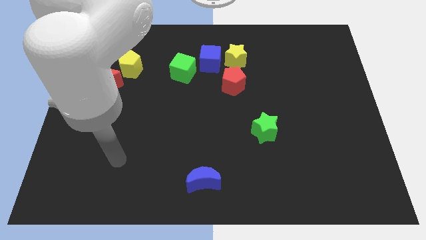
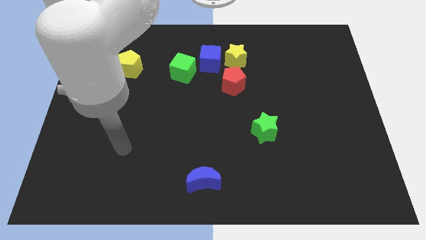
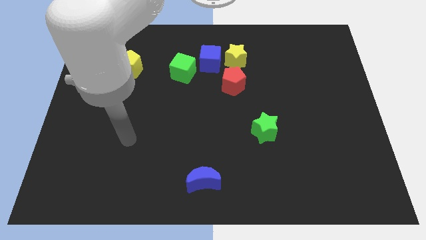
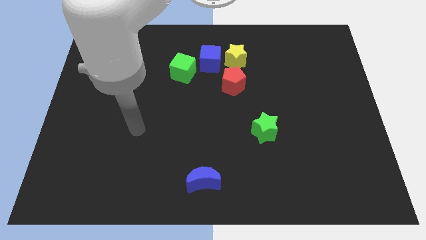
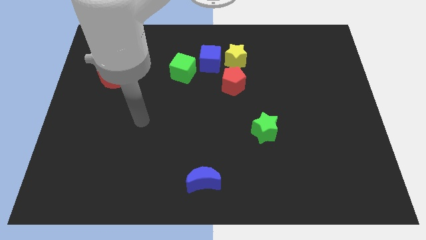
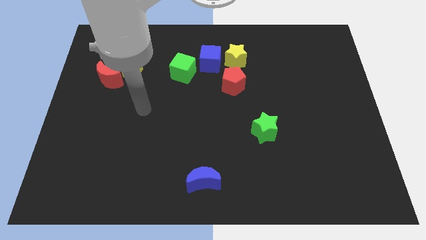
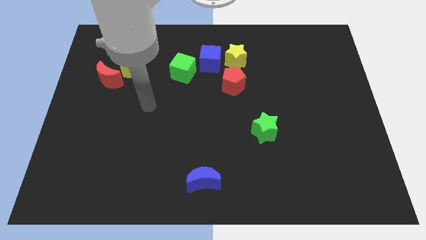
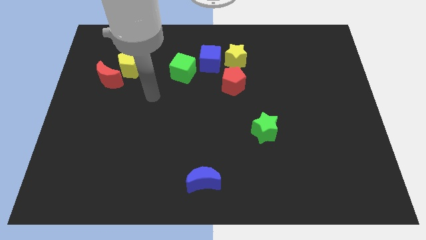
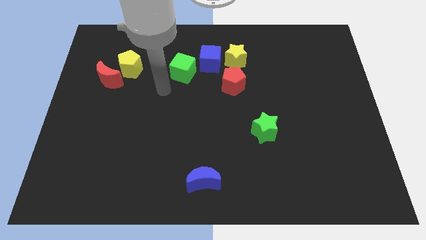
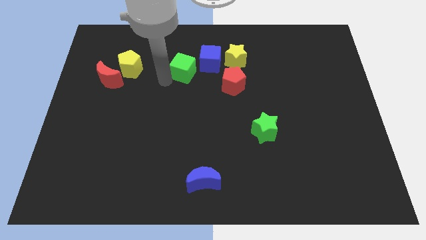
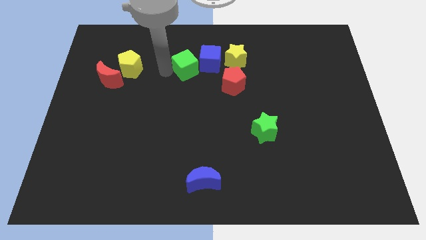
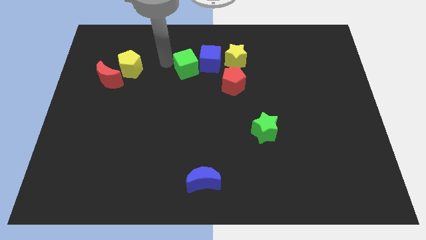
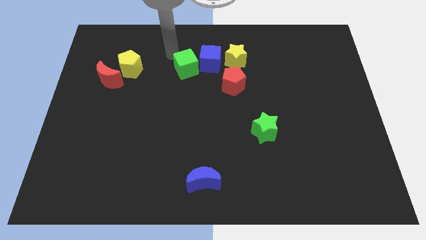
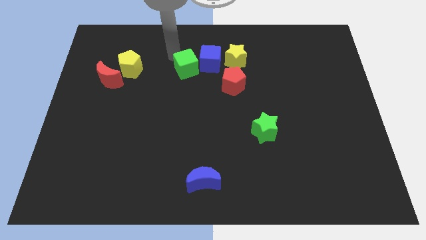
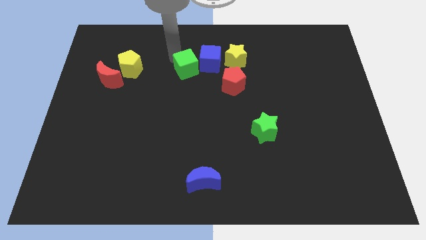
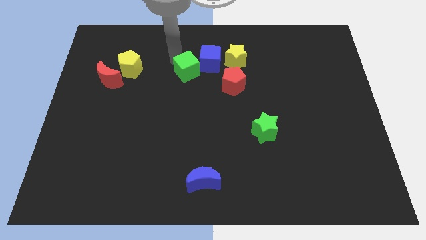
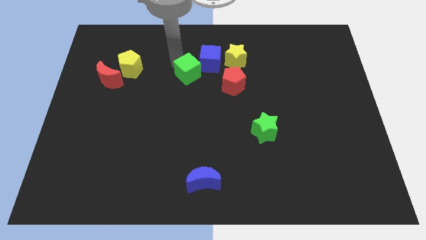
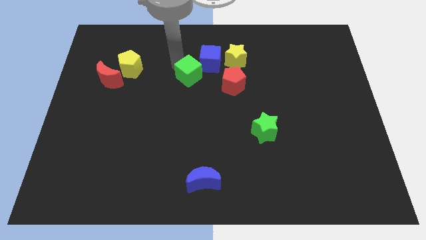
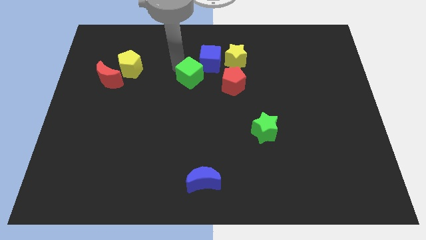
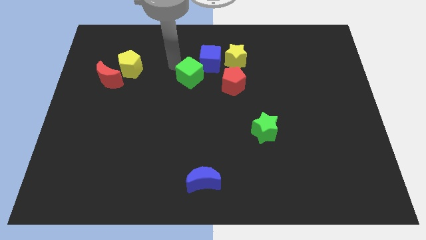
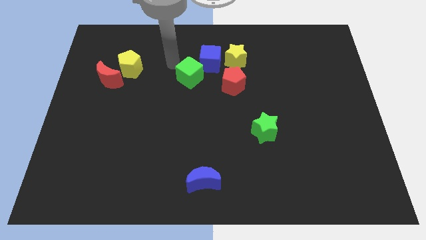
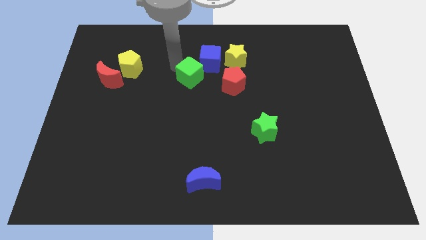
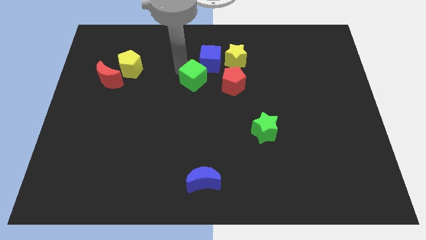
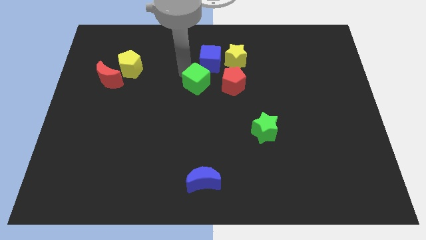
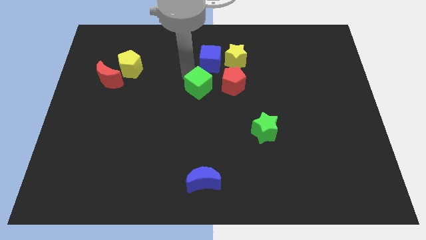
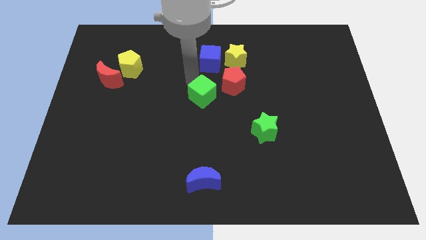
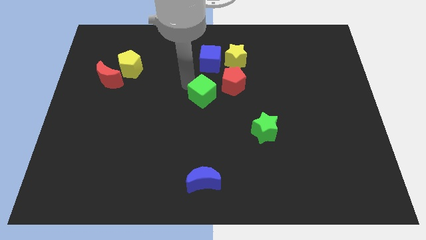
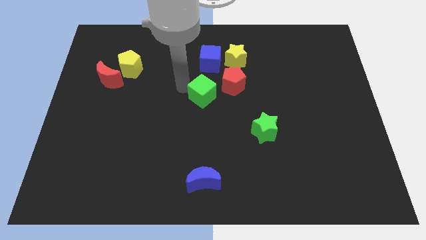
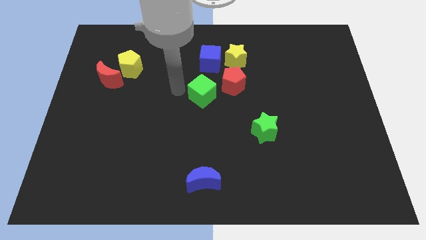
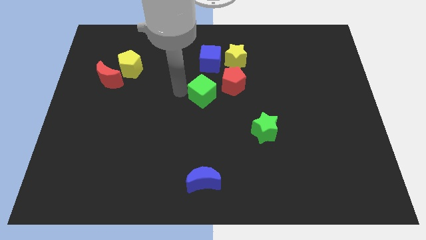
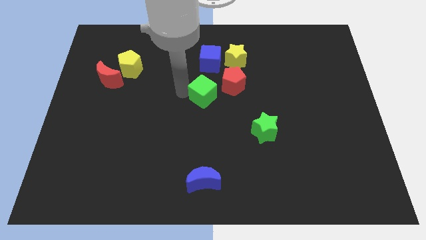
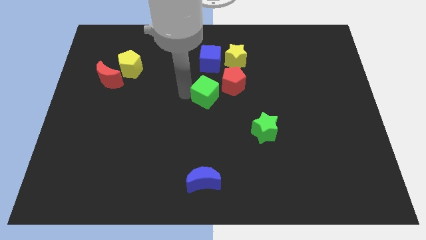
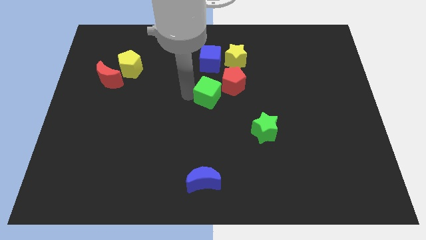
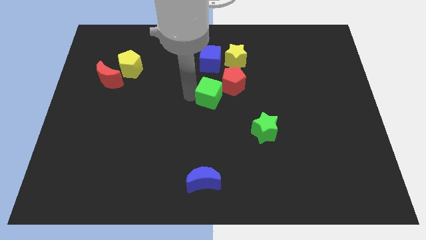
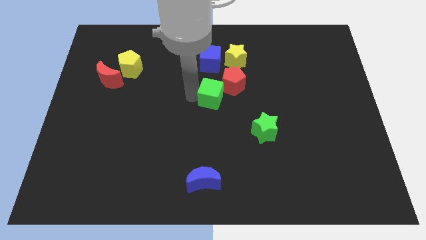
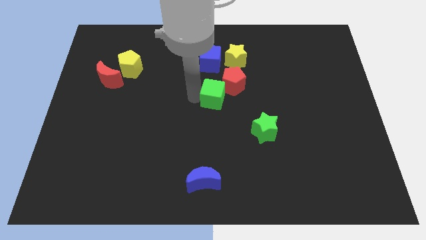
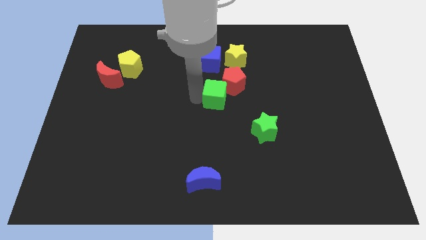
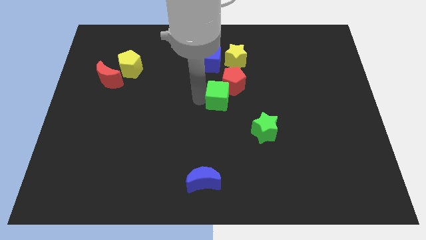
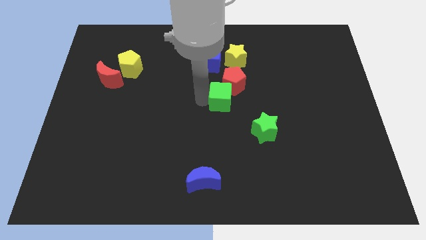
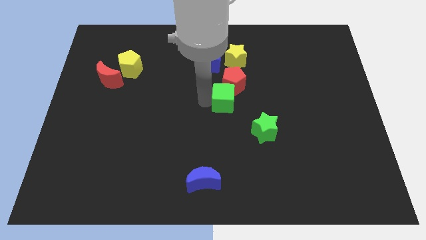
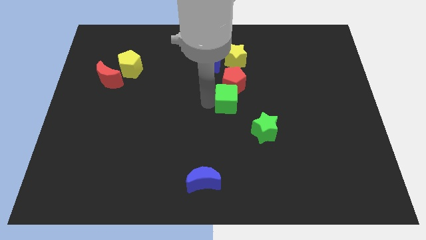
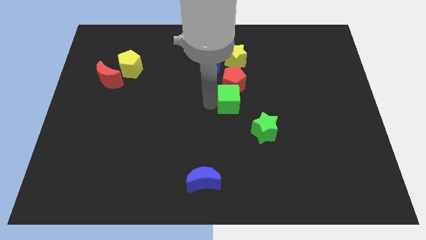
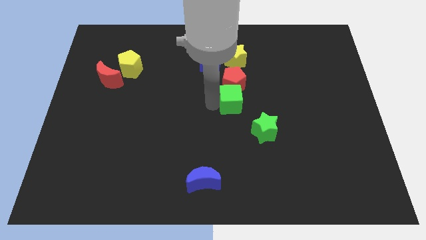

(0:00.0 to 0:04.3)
slide the green cube to the right somewhat

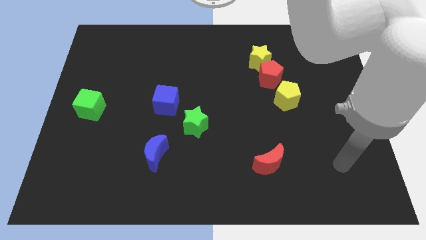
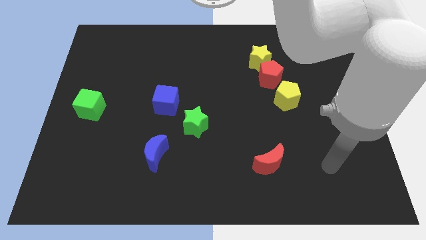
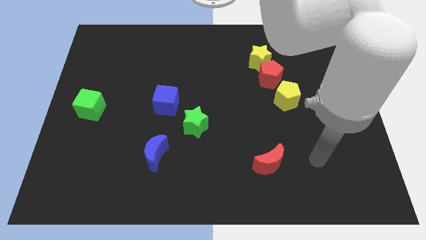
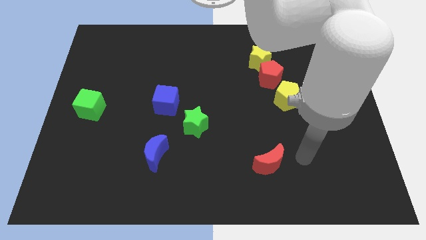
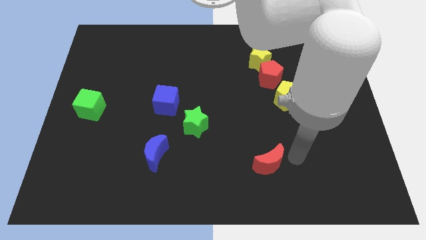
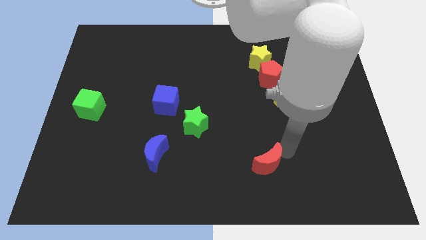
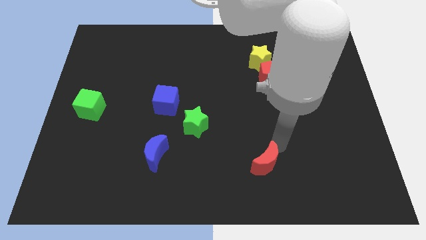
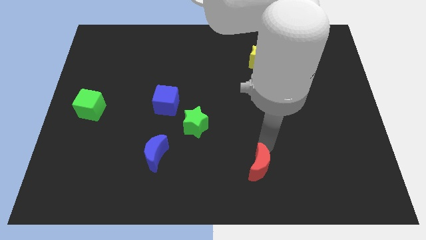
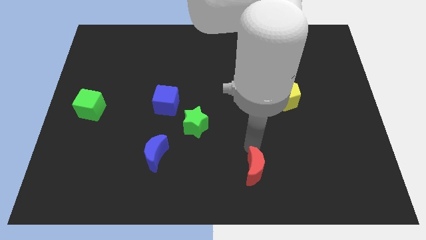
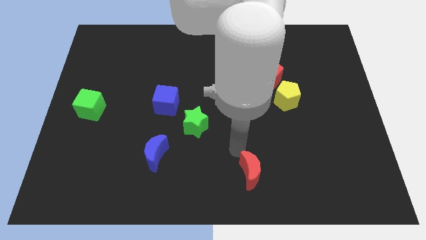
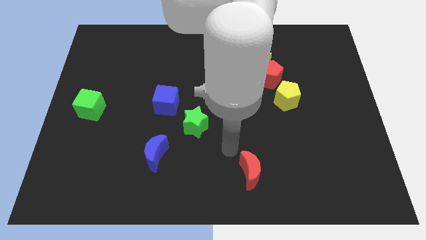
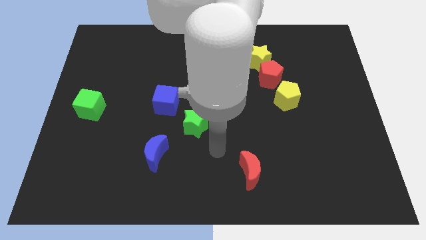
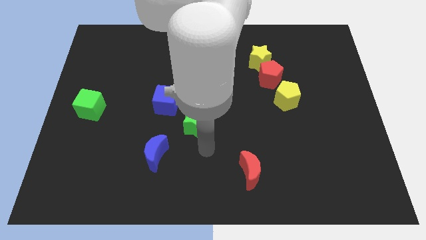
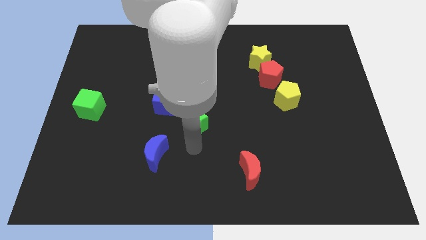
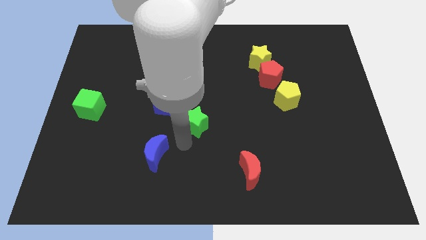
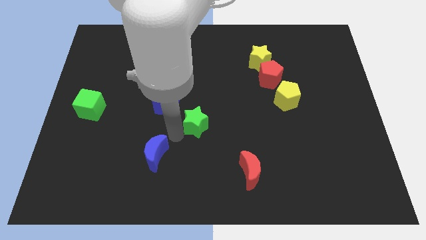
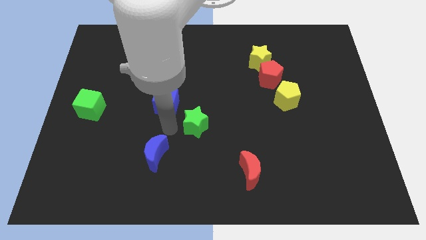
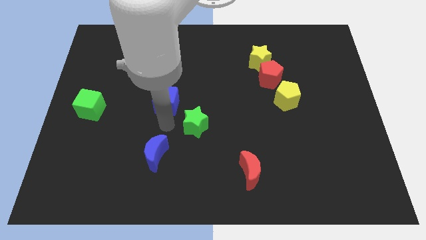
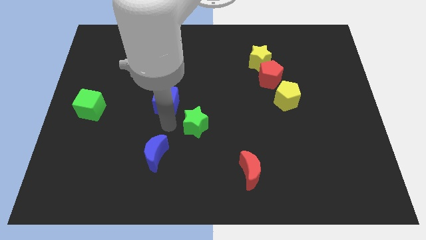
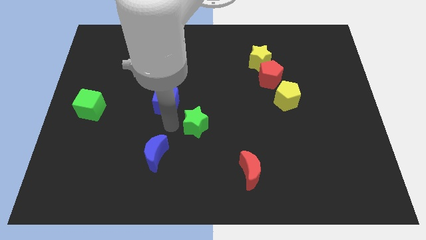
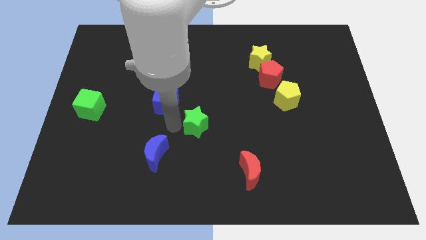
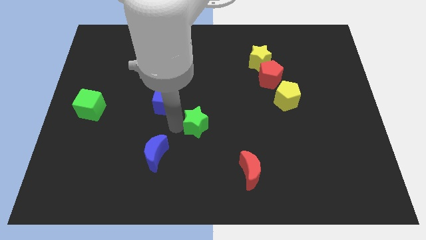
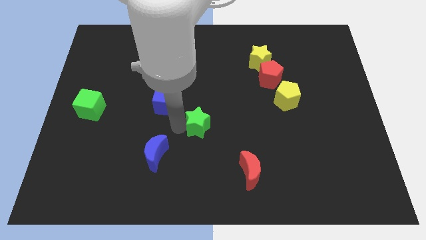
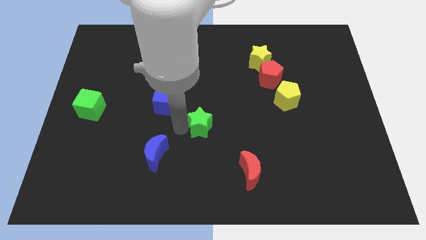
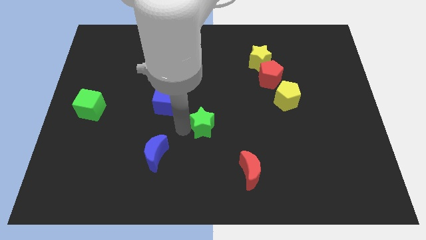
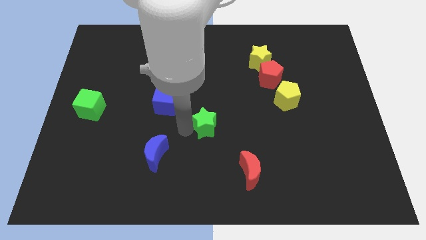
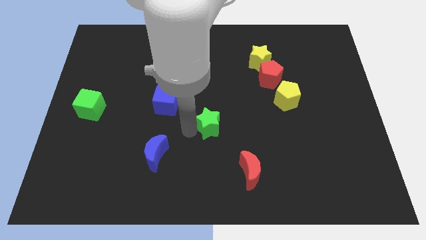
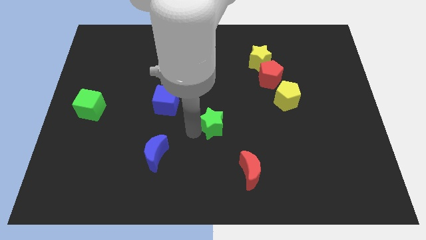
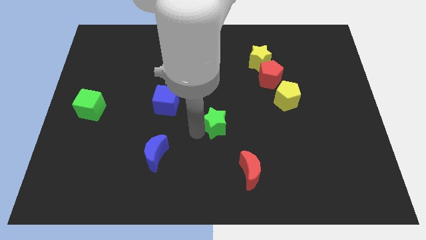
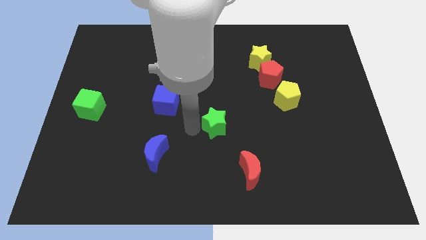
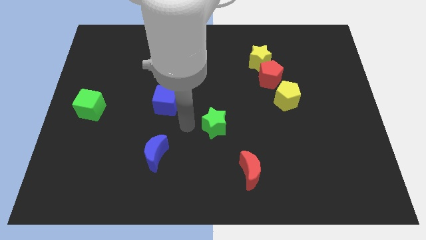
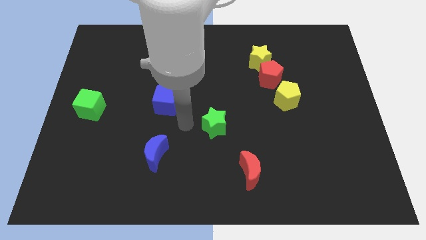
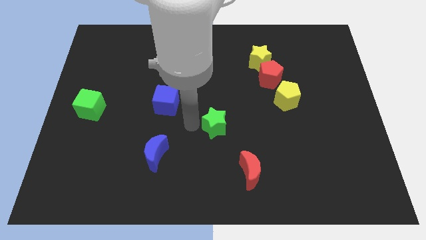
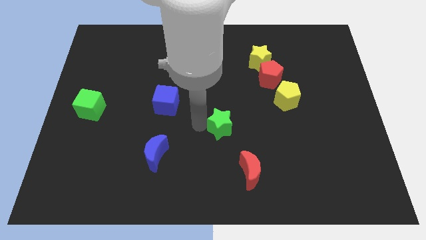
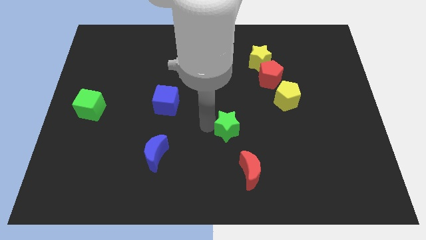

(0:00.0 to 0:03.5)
slightly push the green star to the right

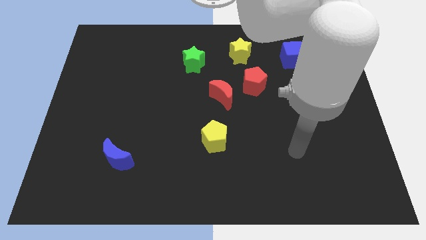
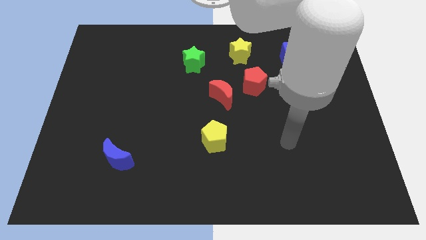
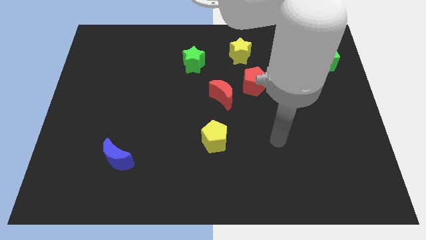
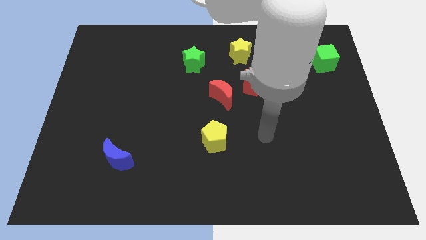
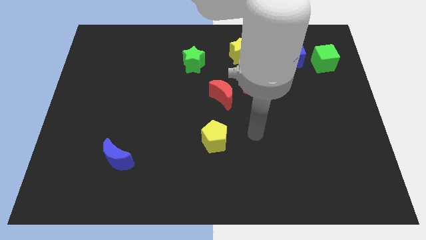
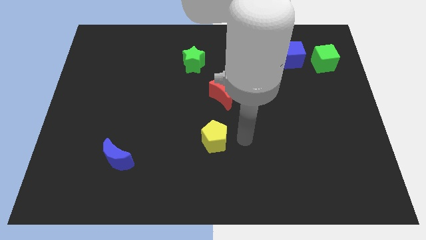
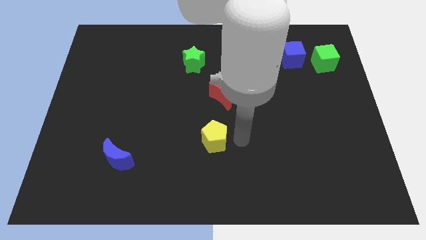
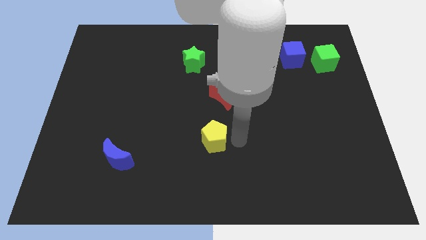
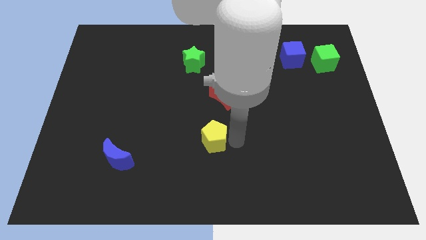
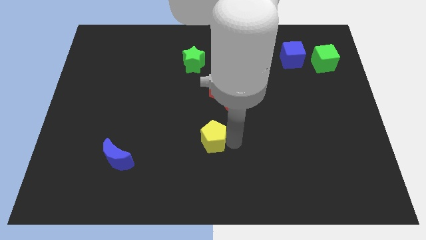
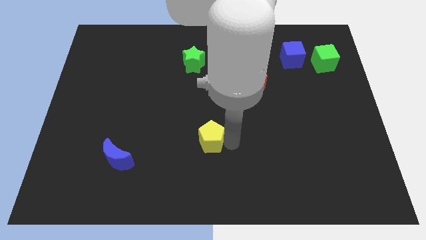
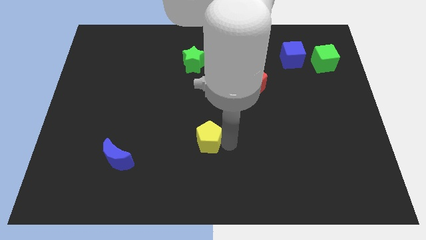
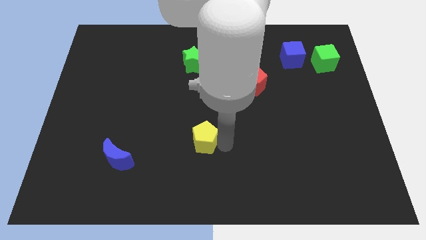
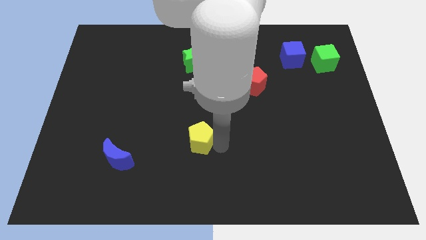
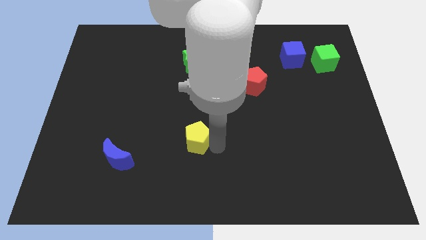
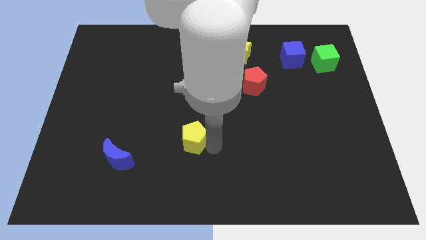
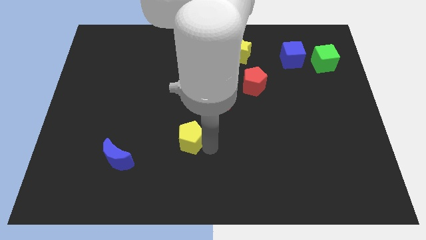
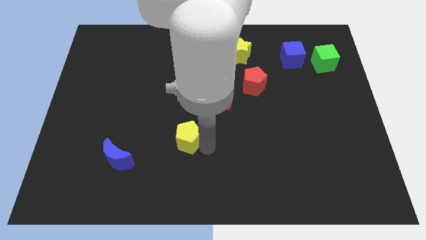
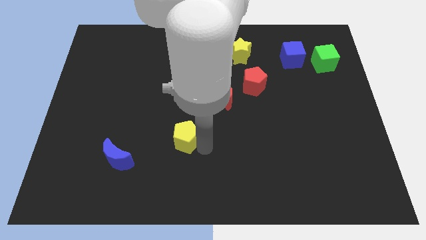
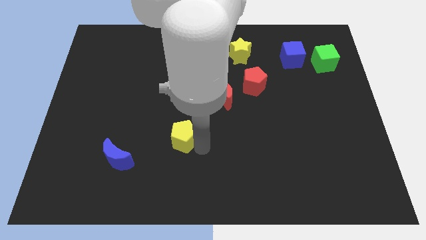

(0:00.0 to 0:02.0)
move the yellow pentagon slightly left
